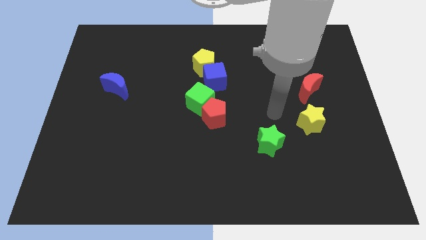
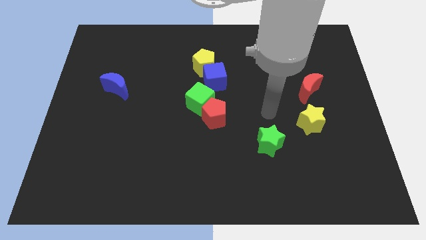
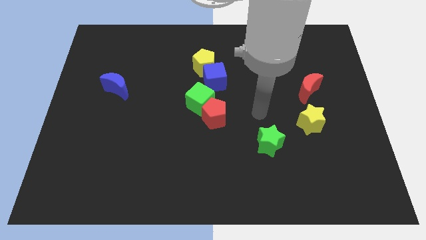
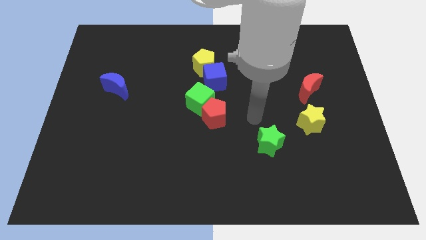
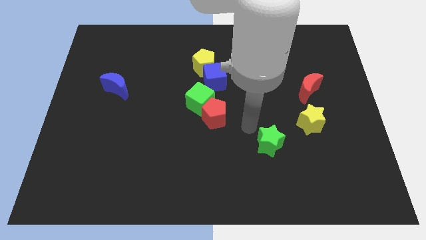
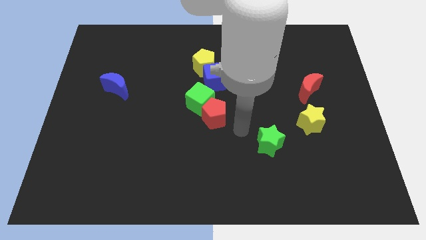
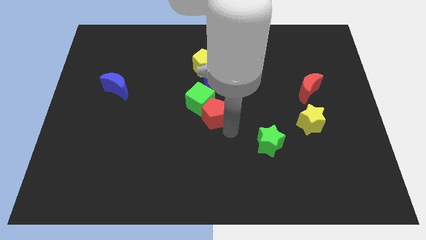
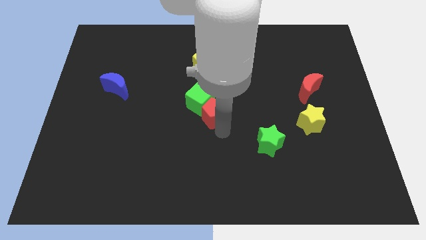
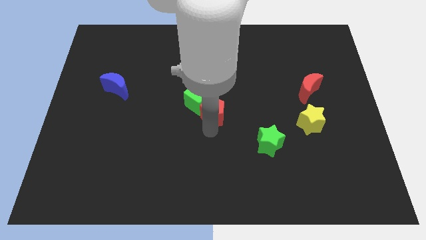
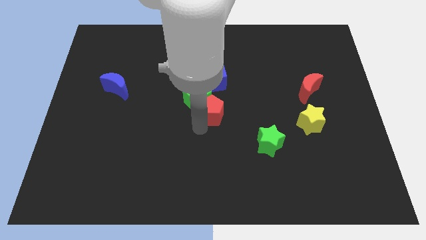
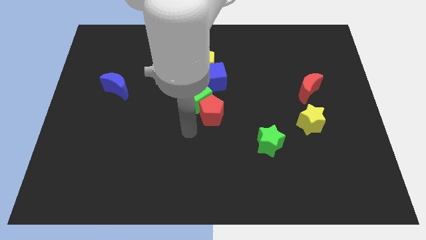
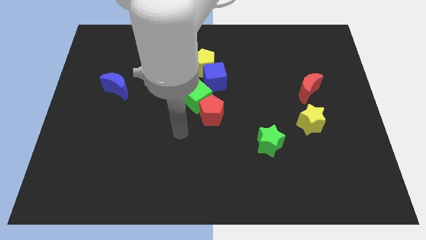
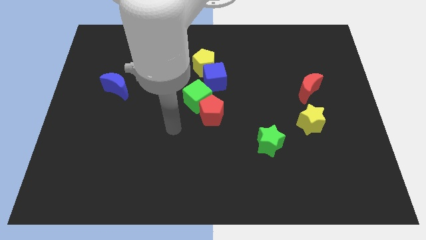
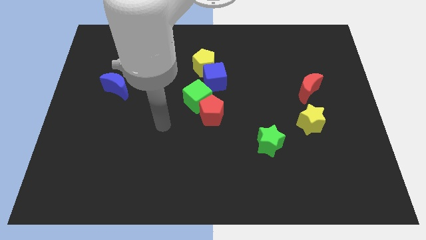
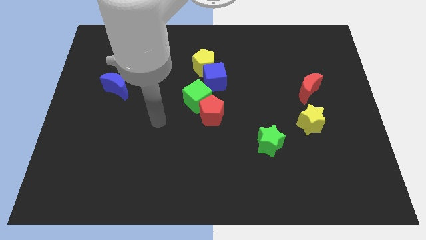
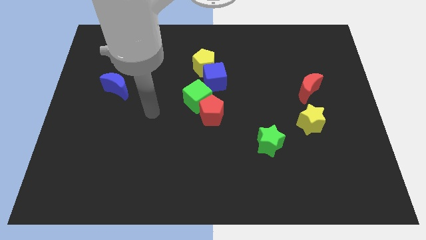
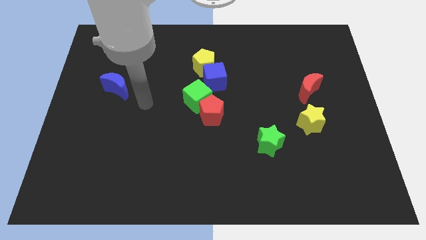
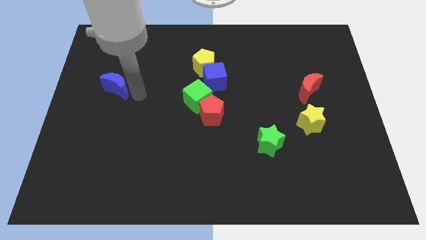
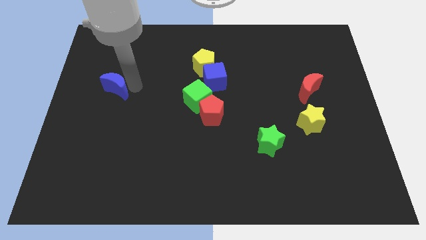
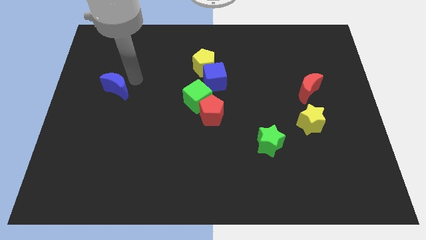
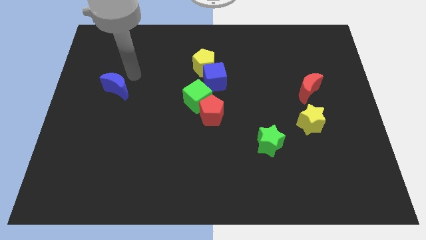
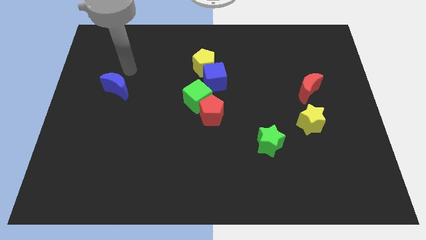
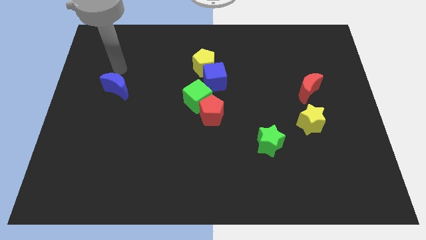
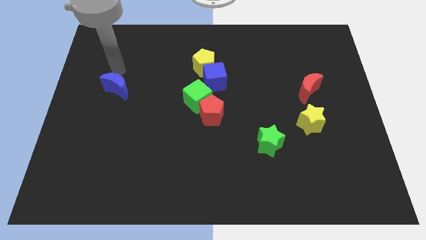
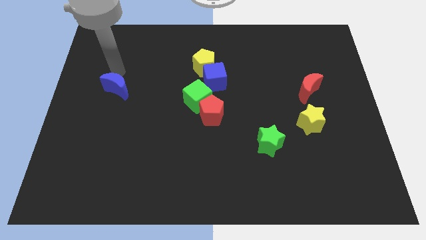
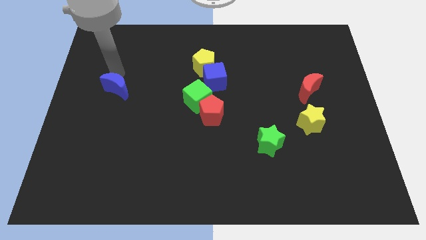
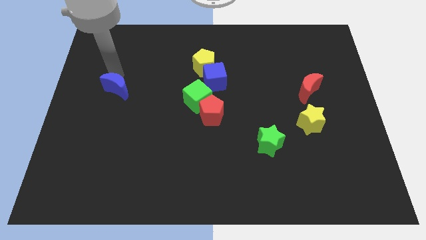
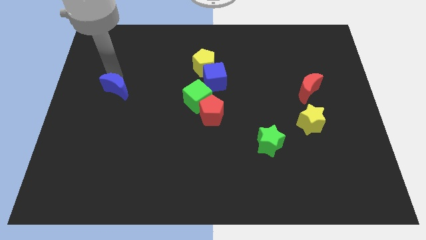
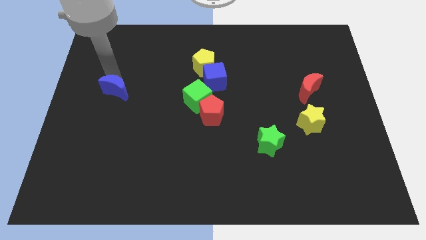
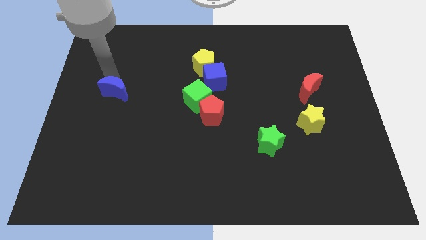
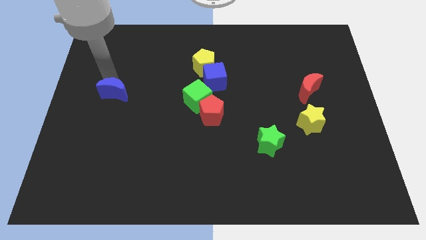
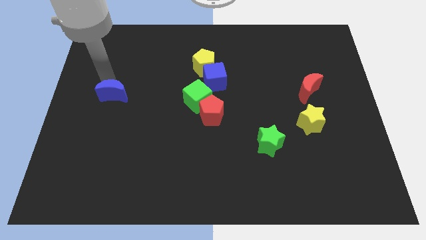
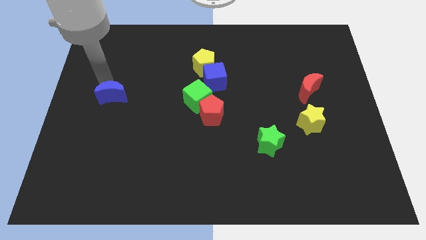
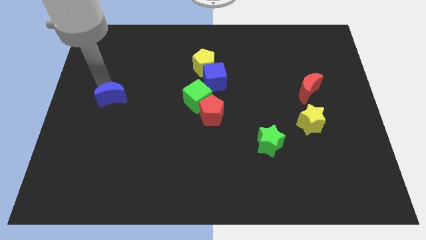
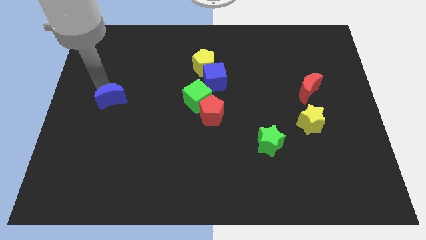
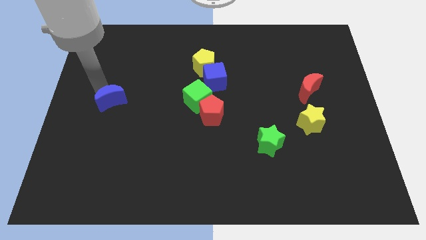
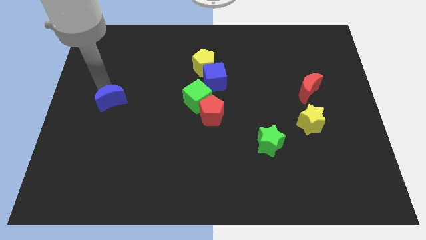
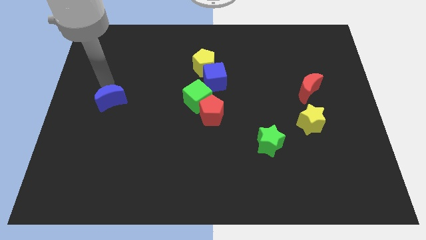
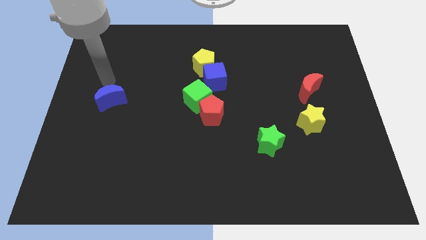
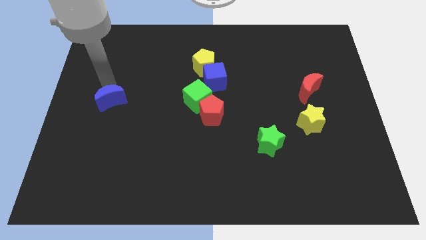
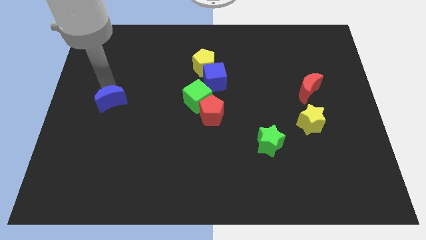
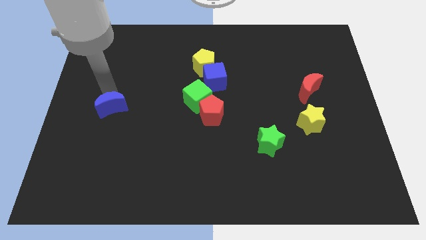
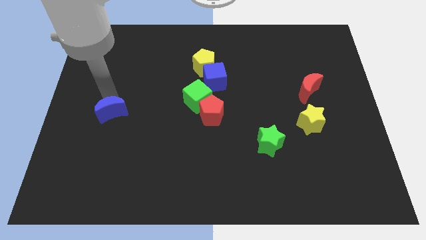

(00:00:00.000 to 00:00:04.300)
slide the blue moon a little down

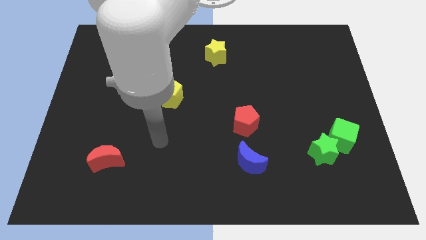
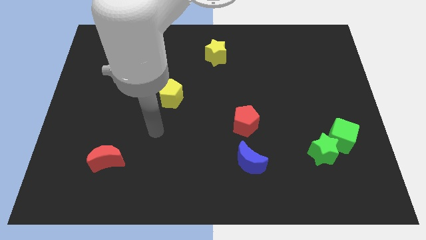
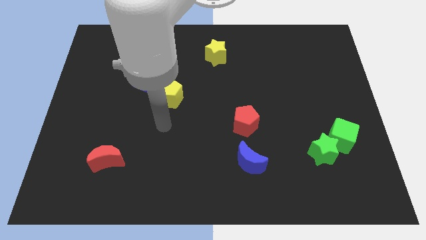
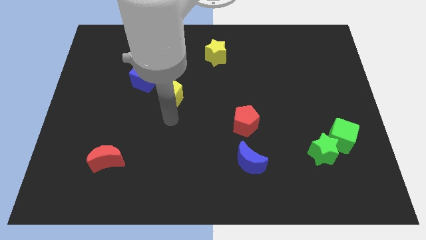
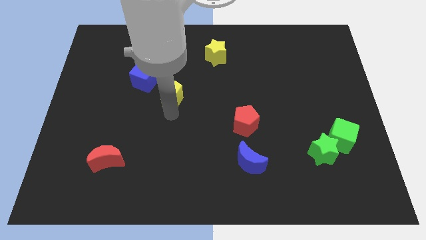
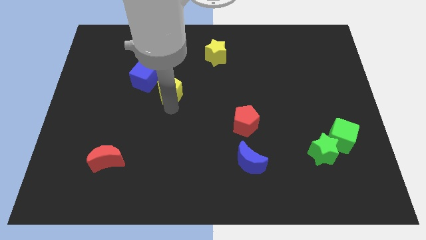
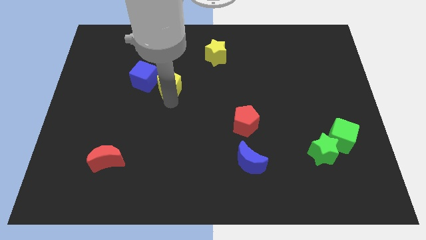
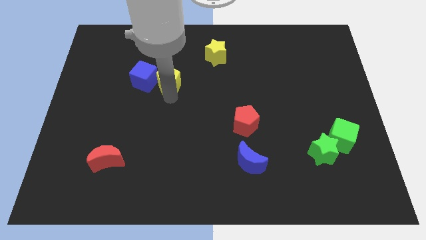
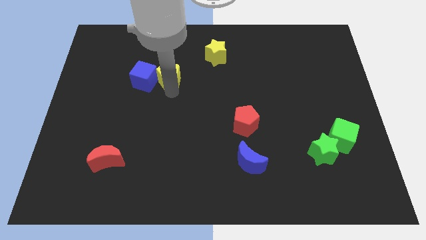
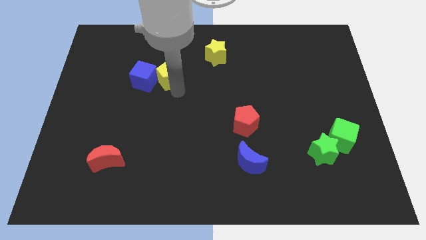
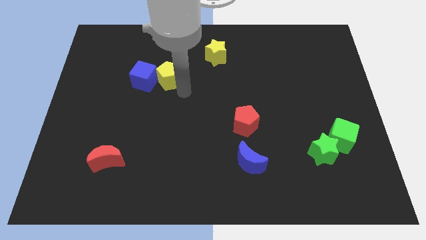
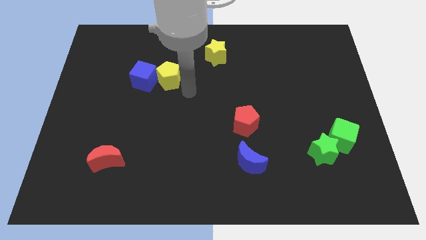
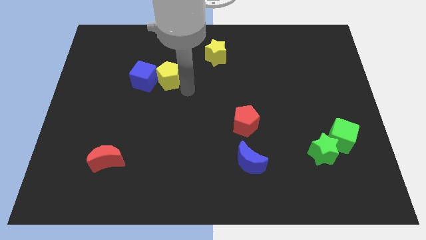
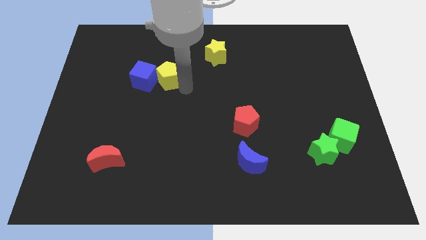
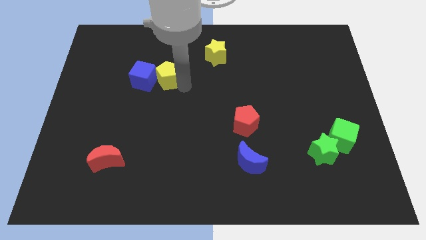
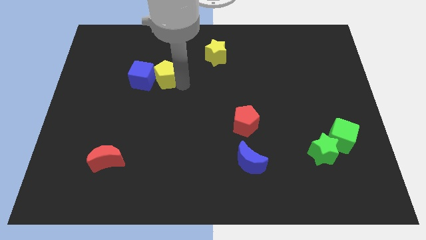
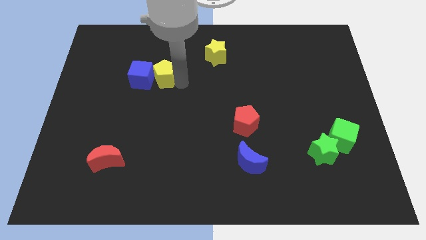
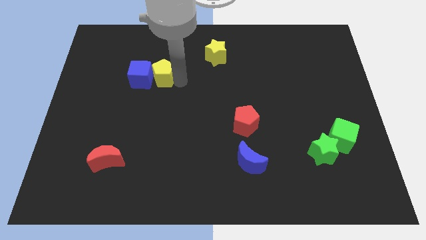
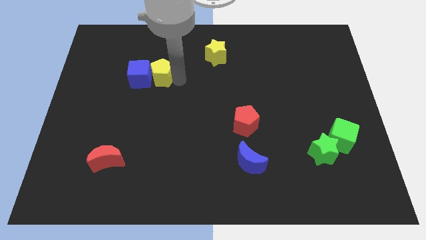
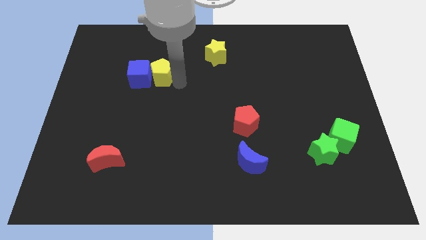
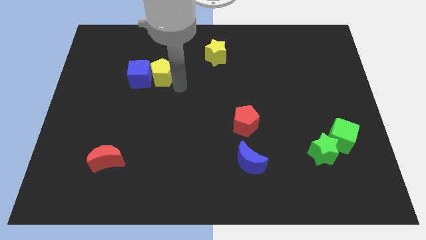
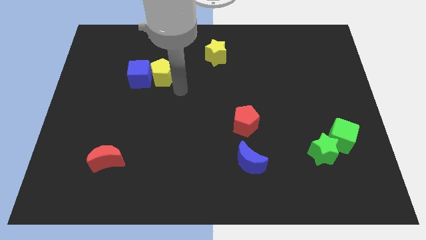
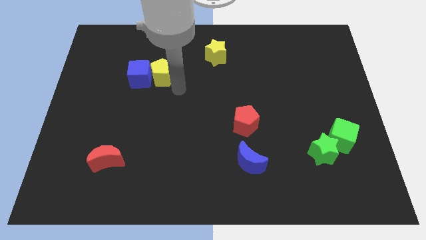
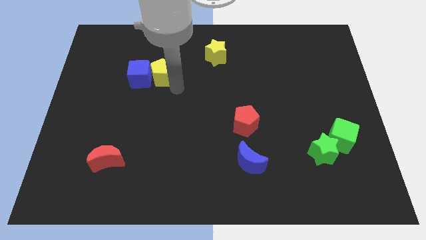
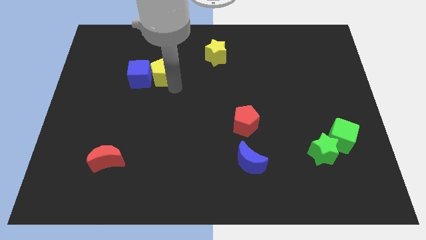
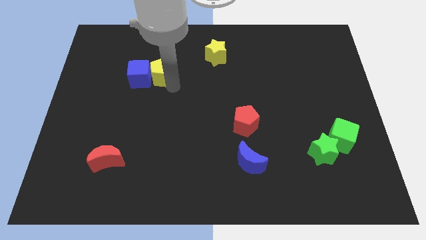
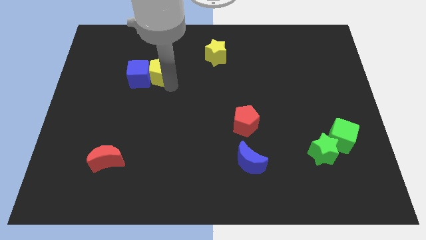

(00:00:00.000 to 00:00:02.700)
push the yellow pentagon diagonally up and to the left a little

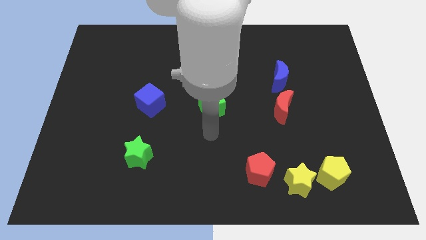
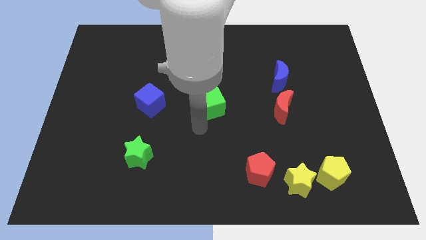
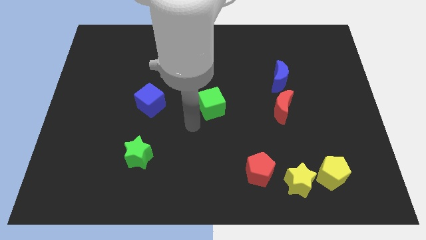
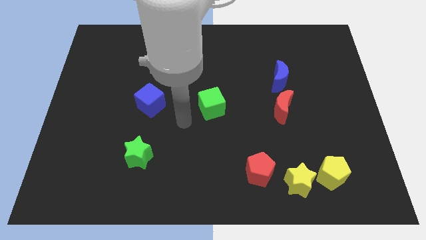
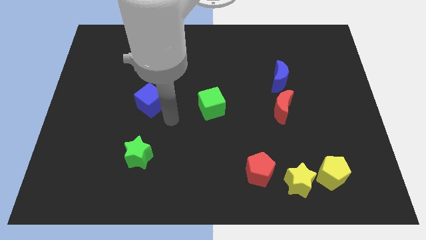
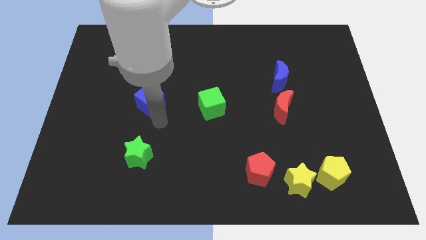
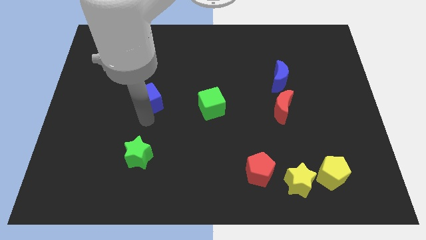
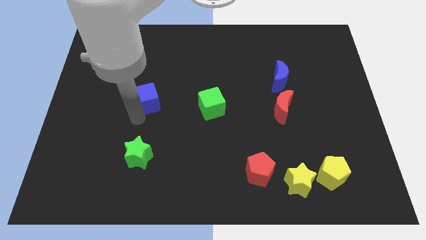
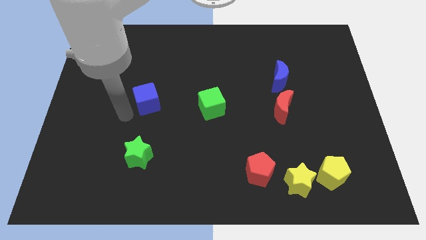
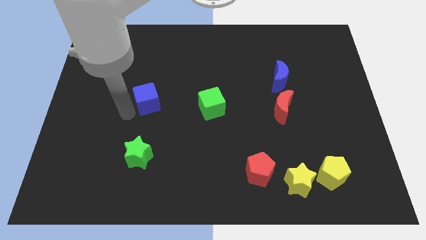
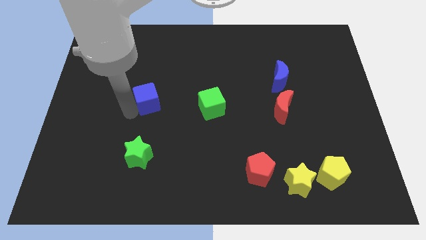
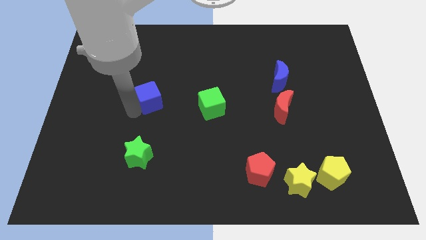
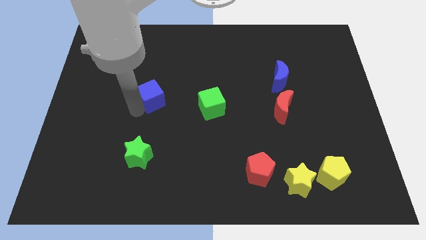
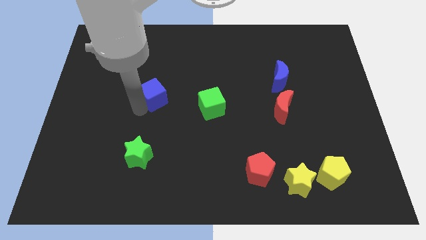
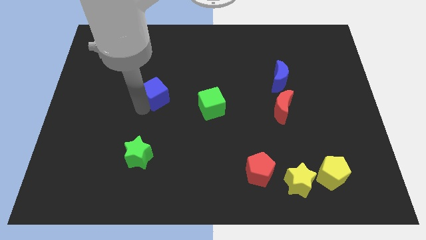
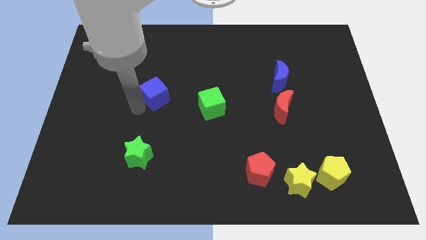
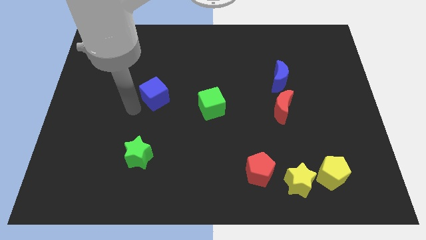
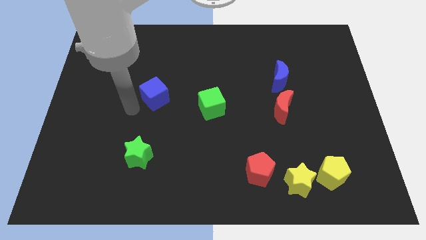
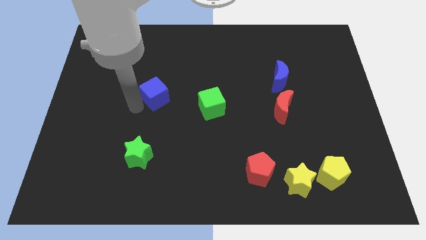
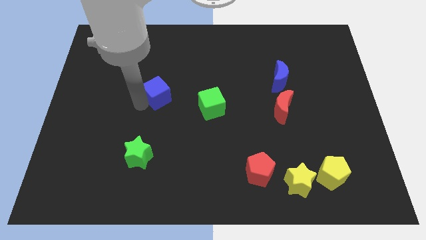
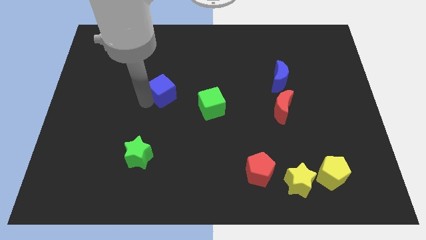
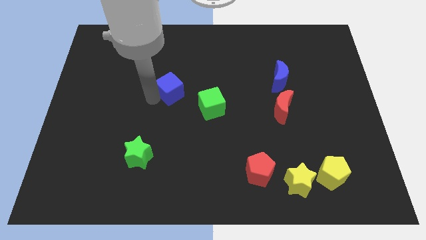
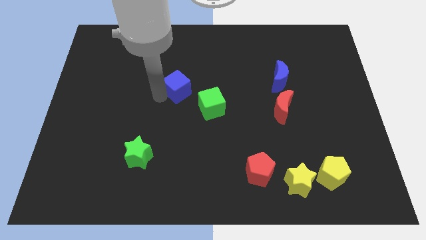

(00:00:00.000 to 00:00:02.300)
slightly push the blue cube up and then to the right
